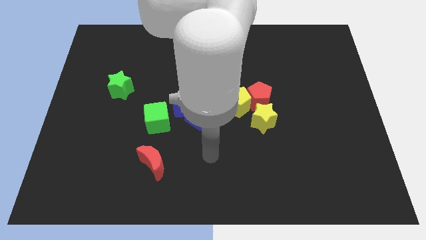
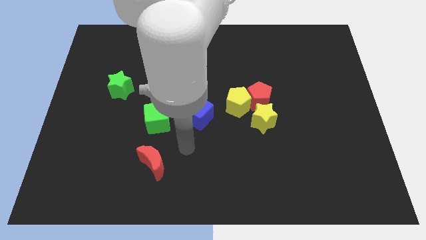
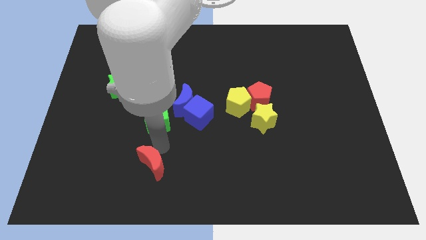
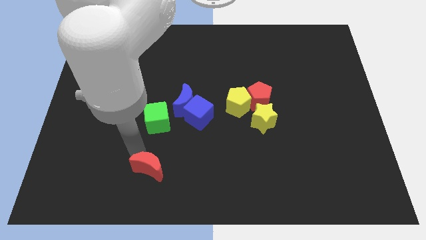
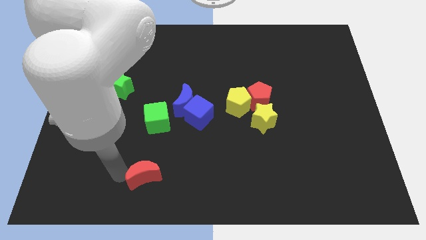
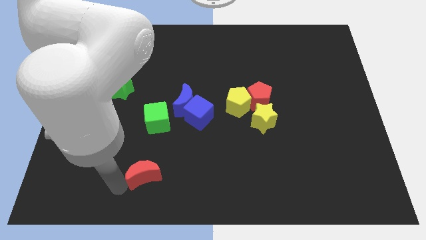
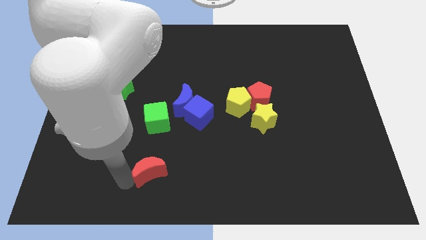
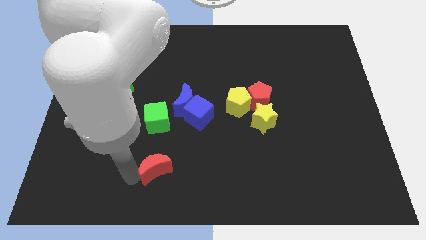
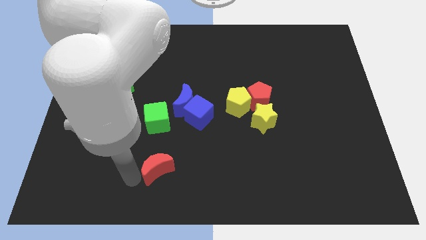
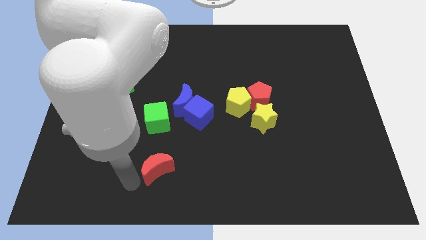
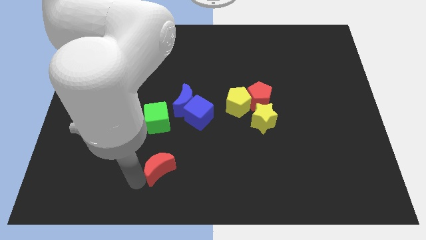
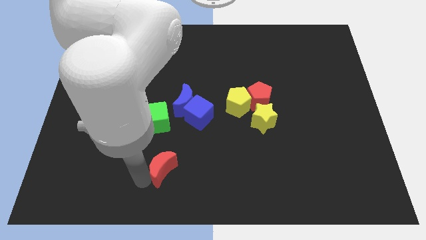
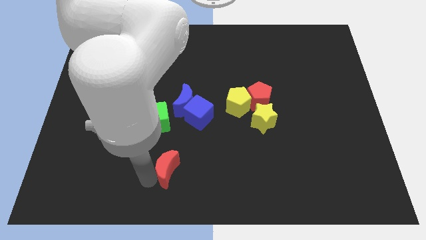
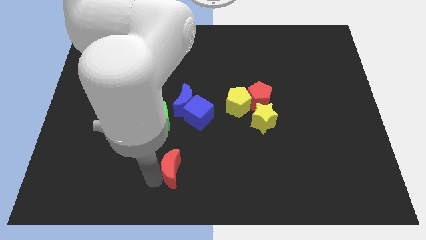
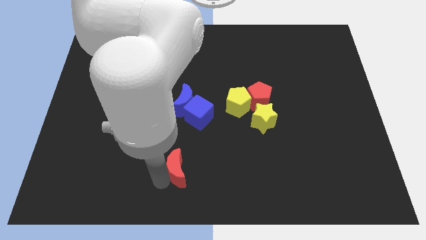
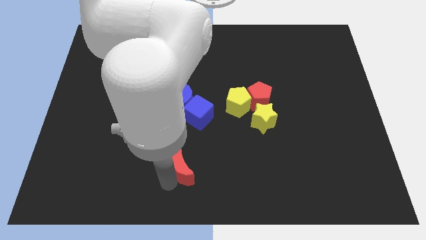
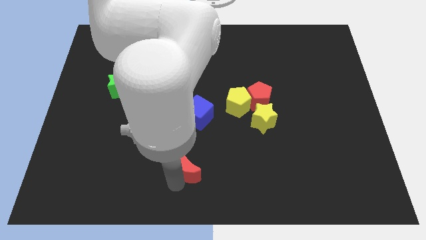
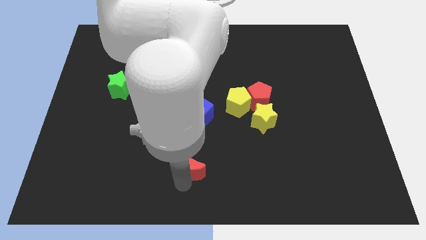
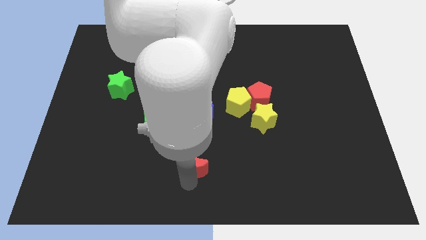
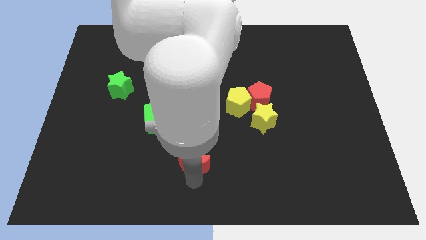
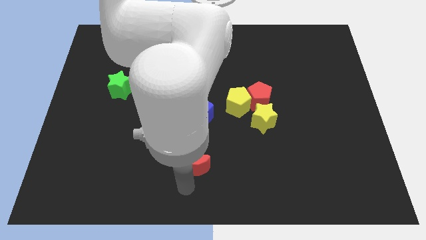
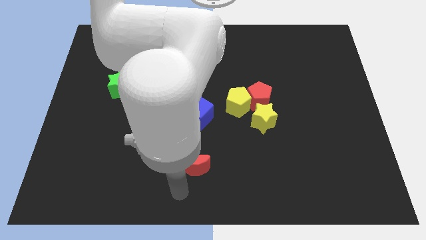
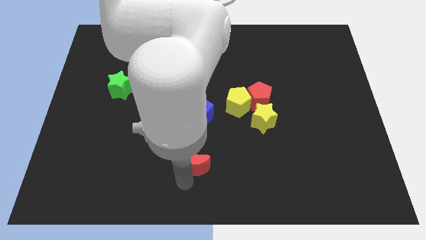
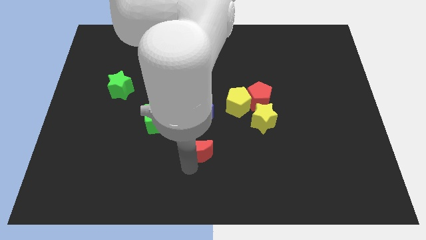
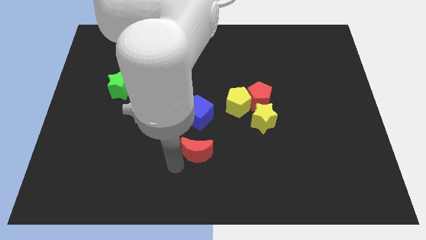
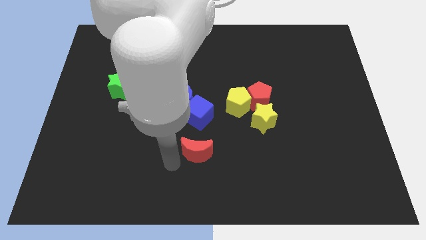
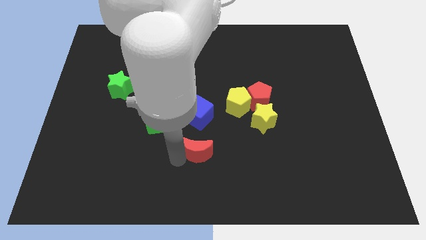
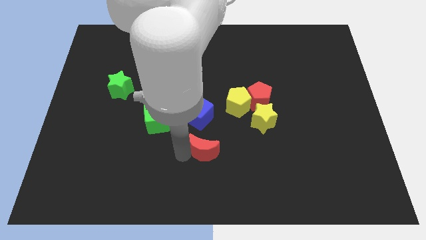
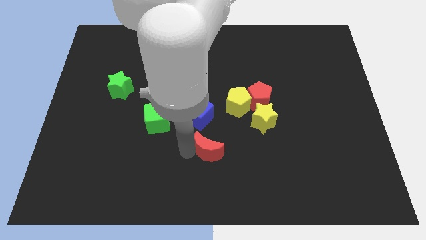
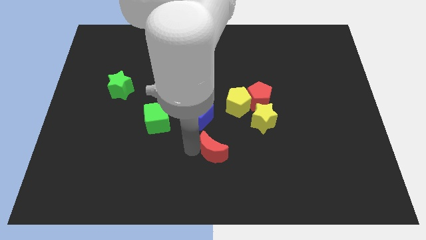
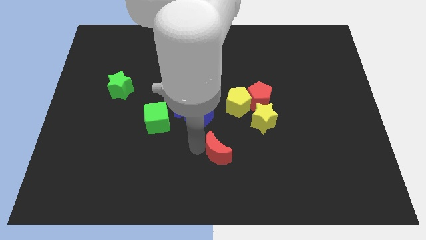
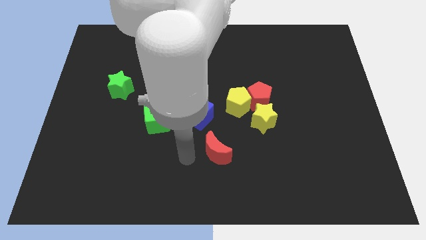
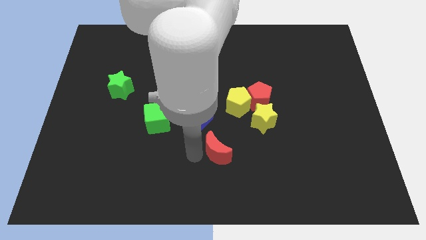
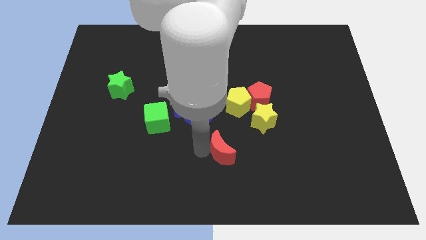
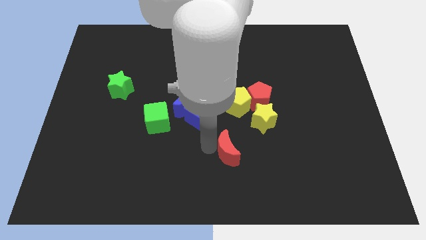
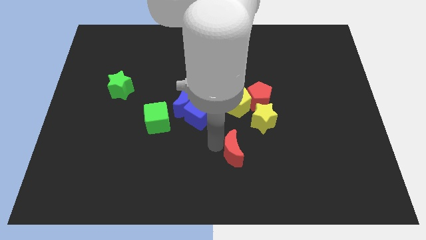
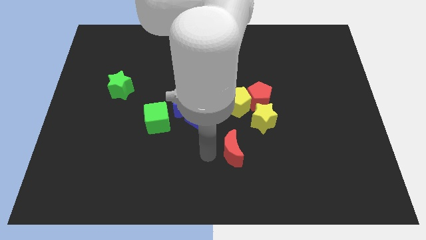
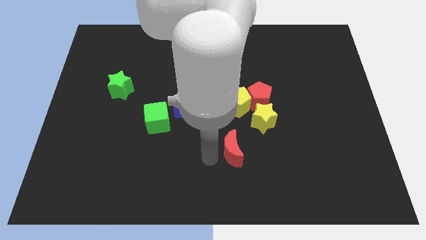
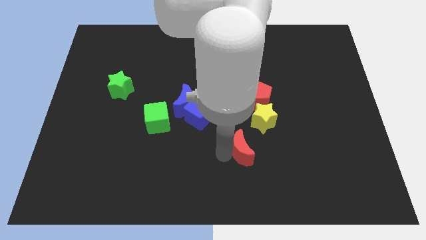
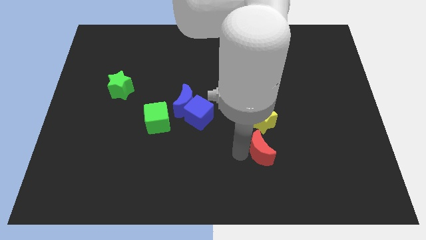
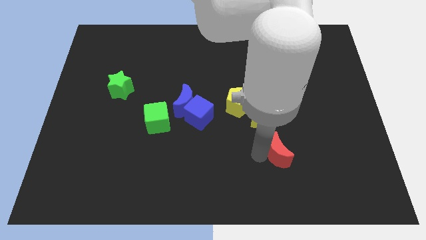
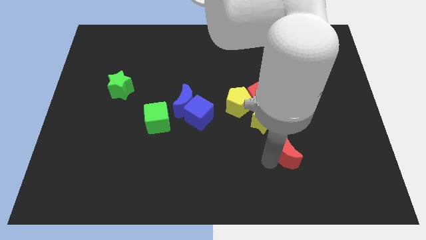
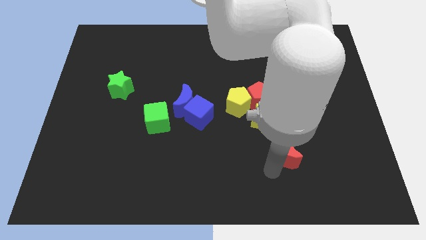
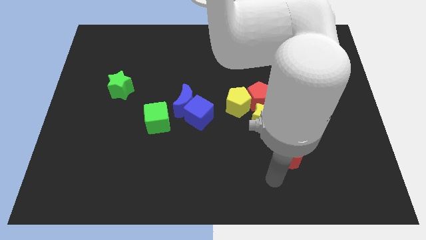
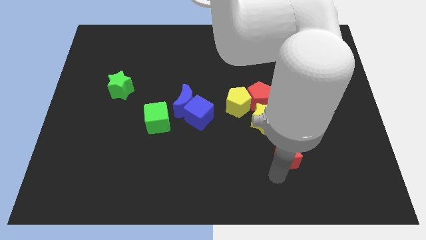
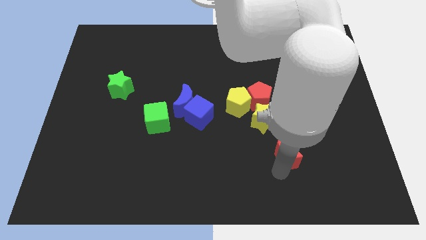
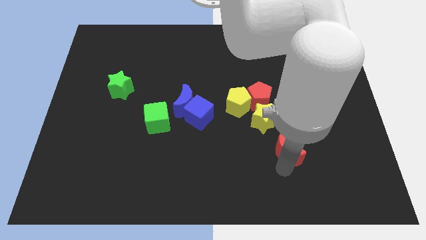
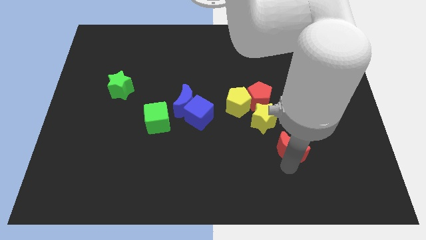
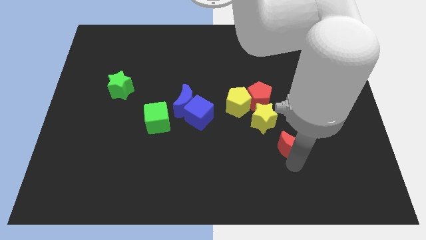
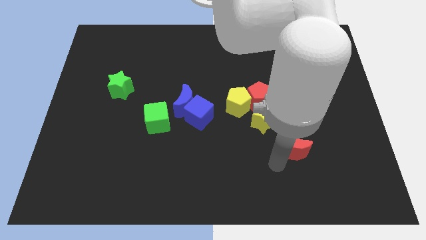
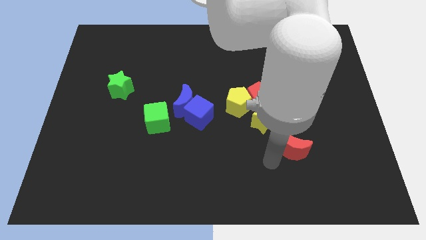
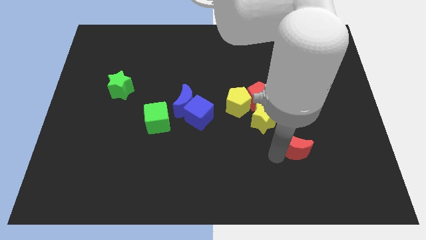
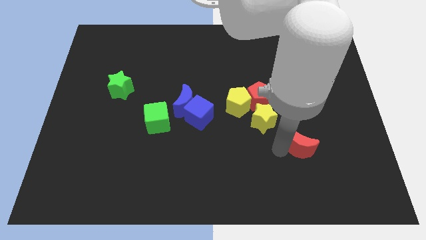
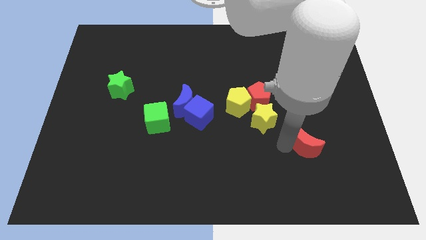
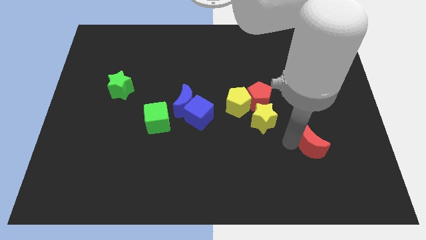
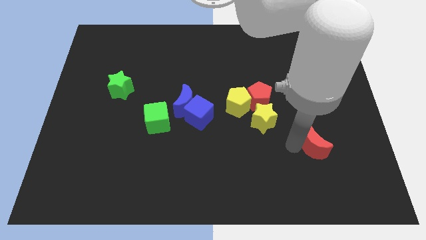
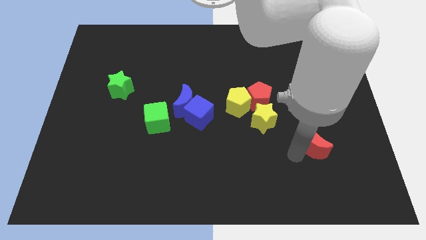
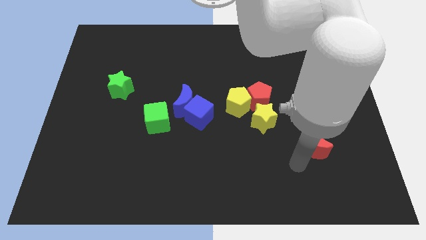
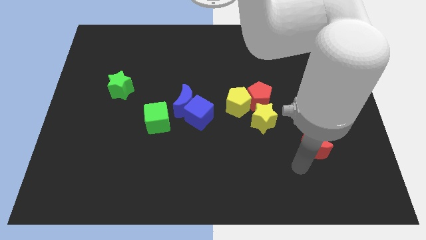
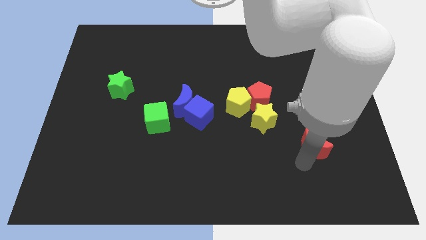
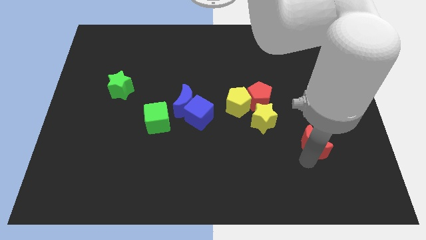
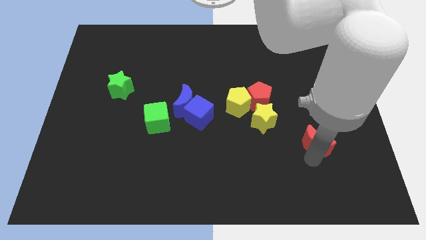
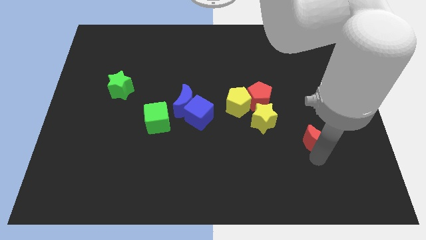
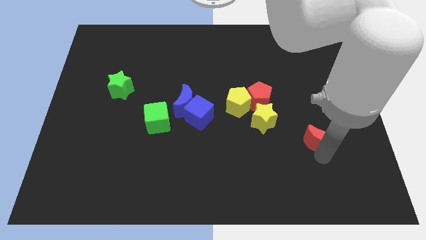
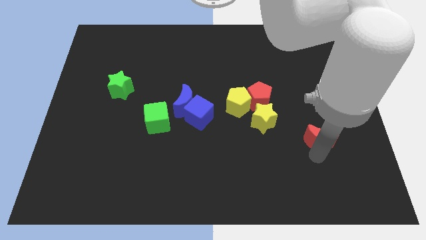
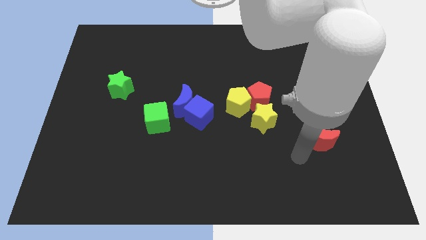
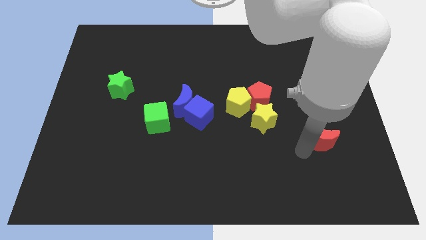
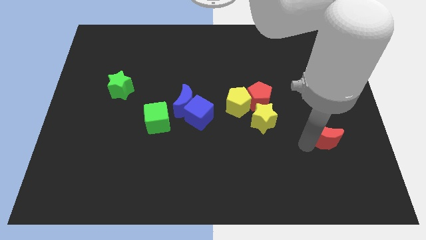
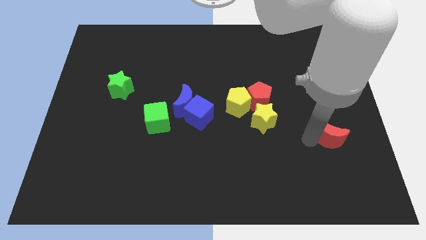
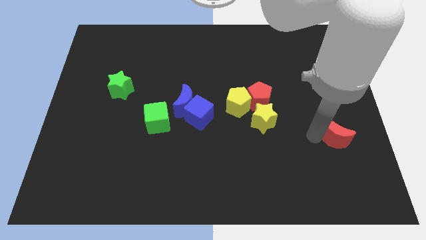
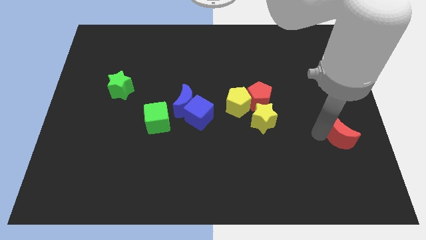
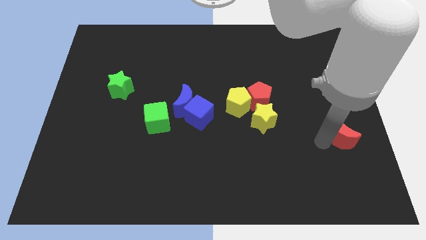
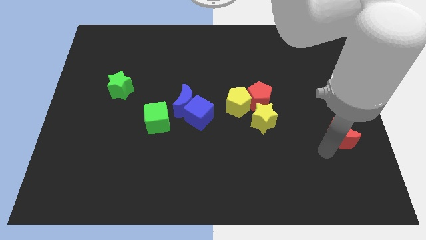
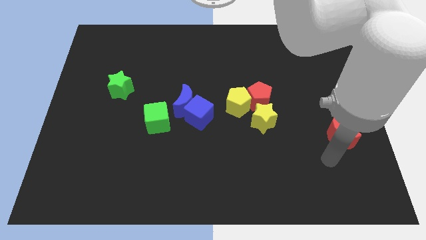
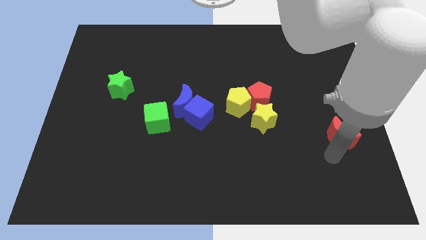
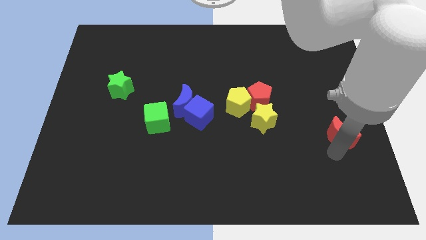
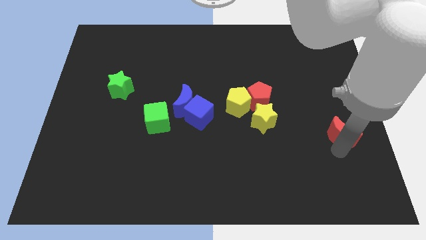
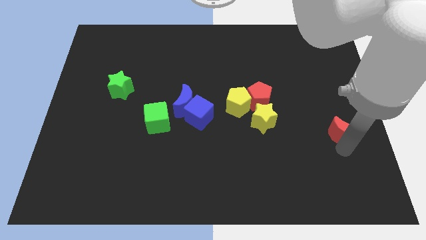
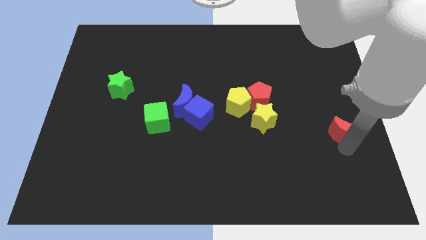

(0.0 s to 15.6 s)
put the red moon to the right side of the board
